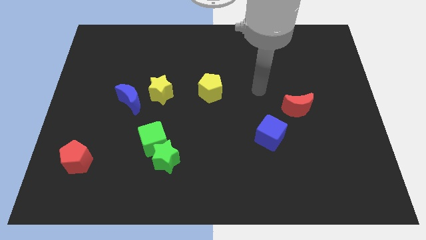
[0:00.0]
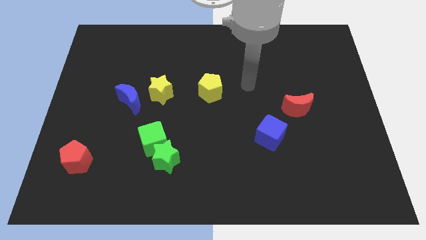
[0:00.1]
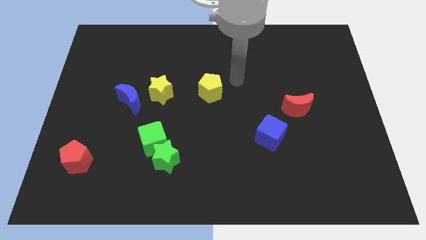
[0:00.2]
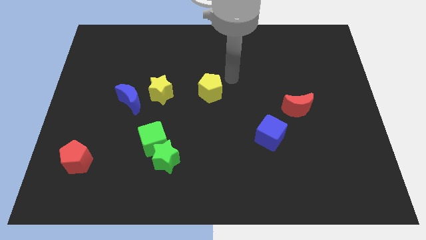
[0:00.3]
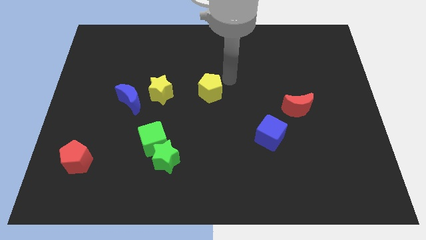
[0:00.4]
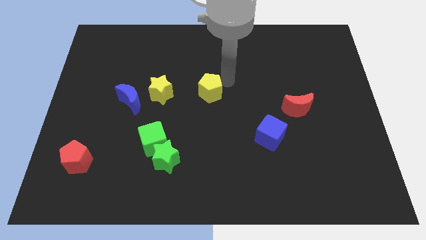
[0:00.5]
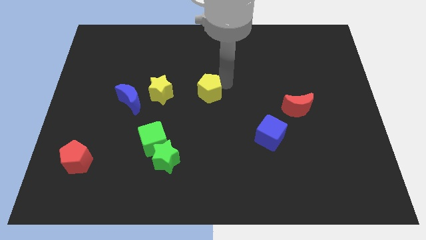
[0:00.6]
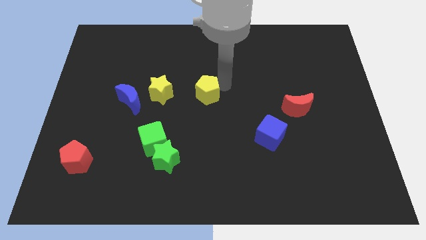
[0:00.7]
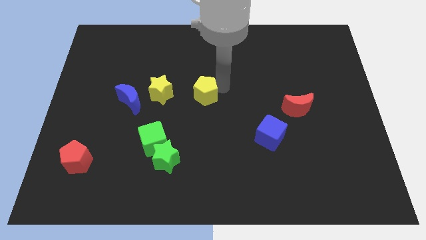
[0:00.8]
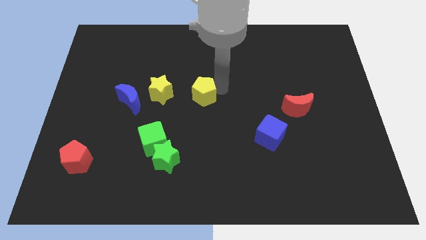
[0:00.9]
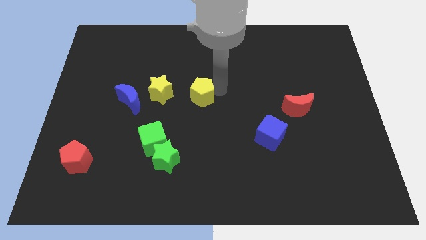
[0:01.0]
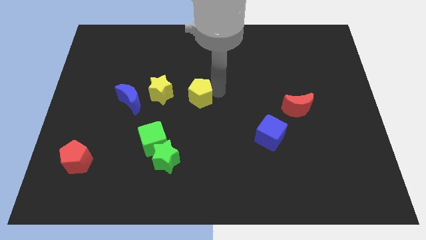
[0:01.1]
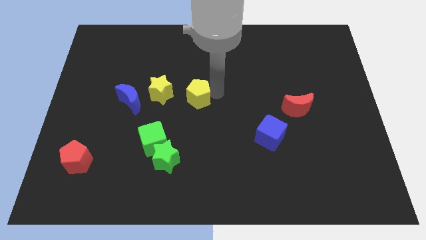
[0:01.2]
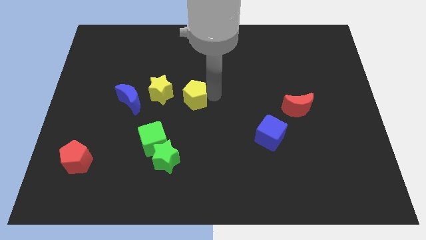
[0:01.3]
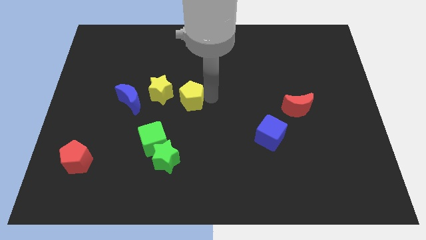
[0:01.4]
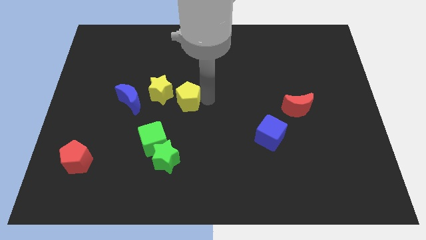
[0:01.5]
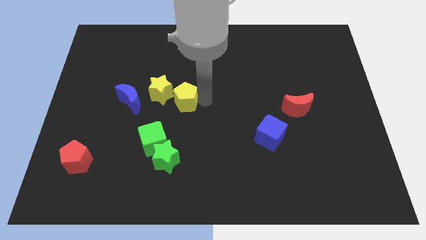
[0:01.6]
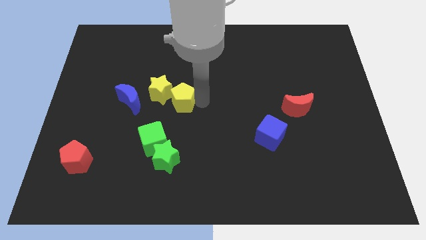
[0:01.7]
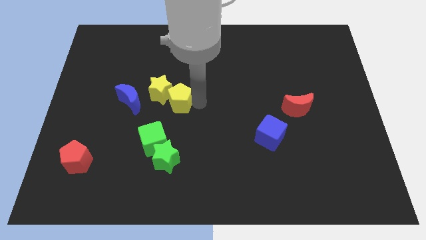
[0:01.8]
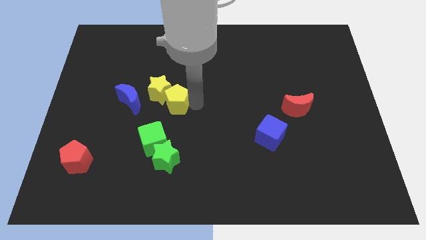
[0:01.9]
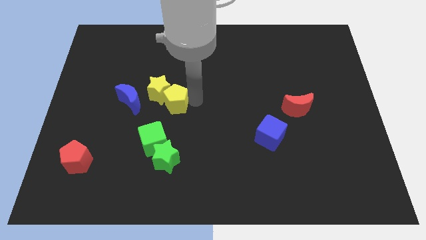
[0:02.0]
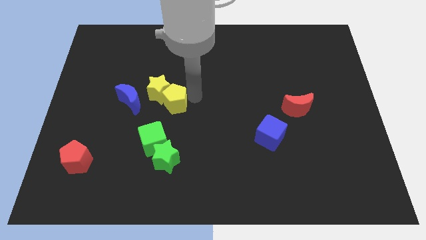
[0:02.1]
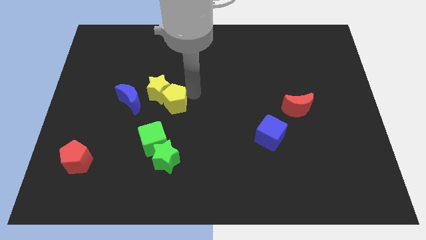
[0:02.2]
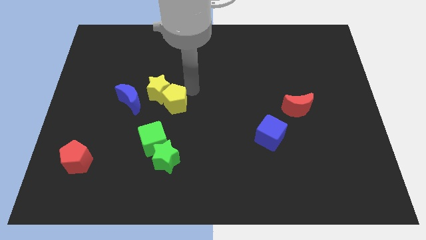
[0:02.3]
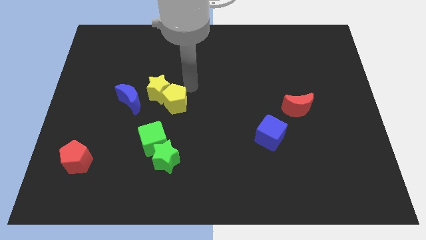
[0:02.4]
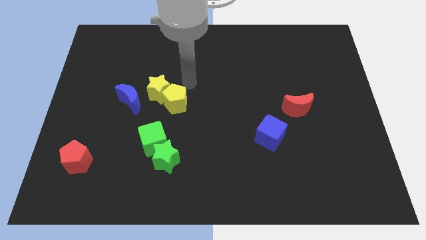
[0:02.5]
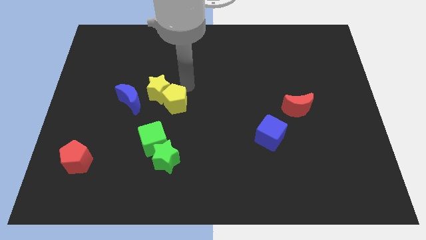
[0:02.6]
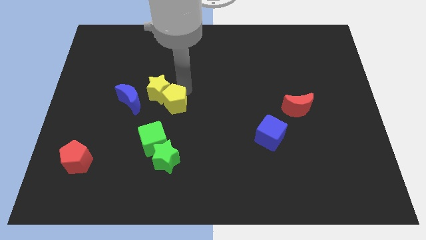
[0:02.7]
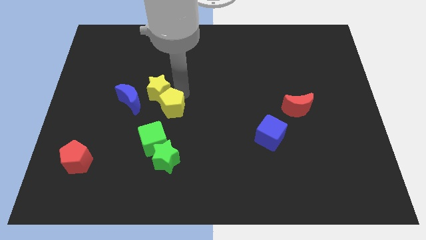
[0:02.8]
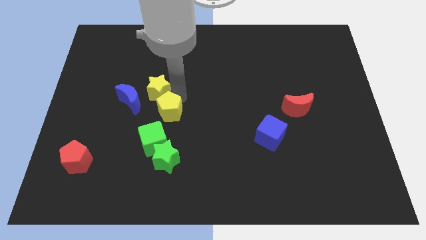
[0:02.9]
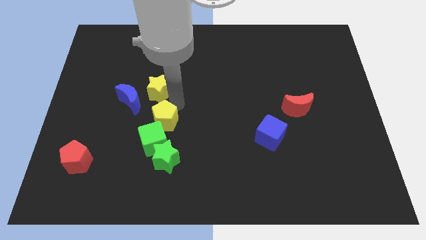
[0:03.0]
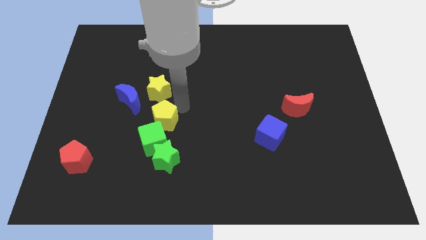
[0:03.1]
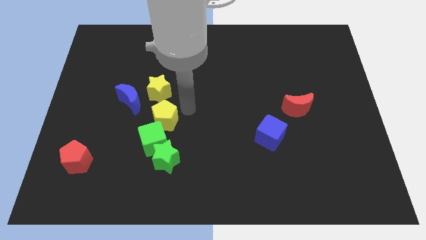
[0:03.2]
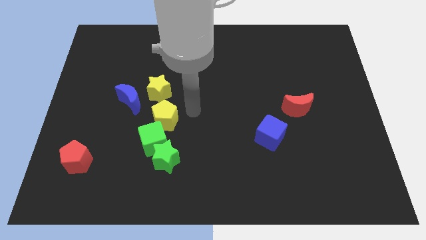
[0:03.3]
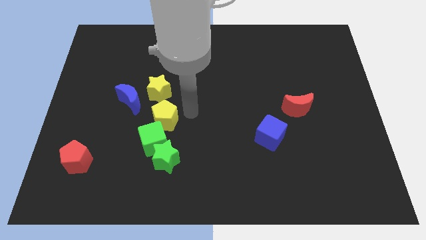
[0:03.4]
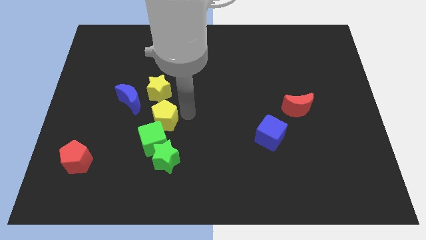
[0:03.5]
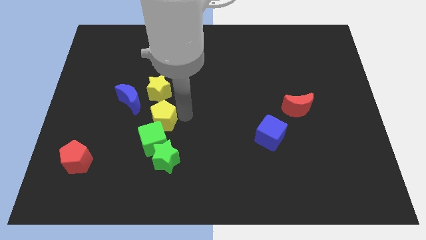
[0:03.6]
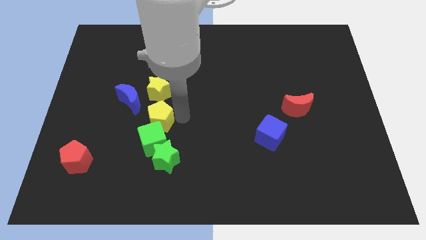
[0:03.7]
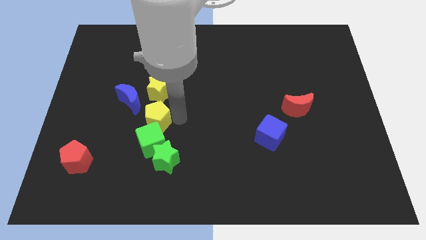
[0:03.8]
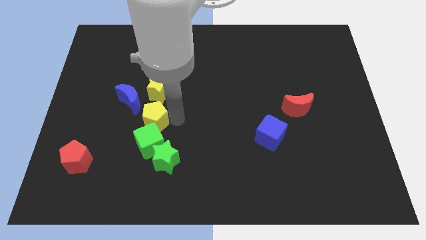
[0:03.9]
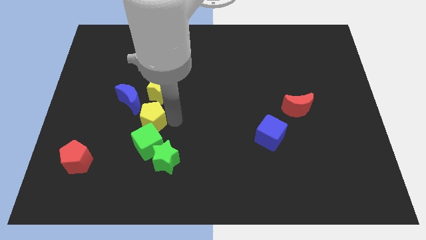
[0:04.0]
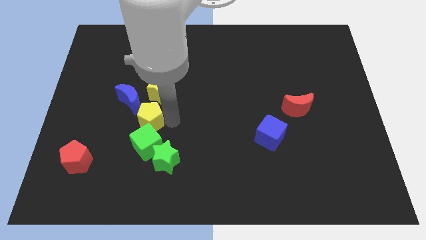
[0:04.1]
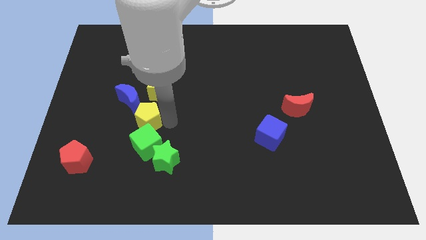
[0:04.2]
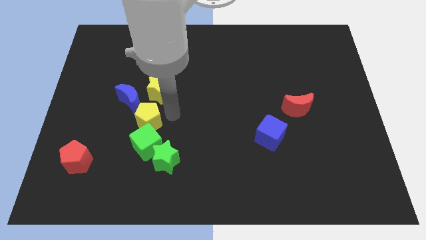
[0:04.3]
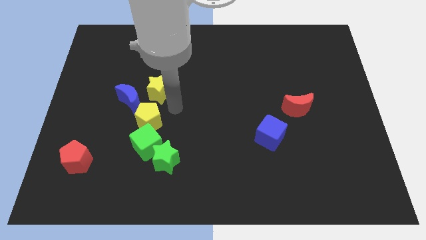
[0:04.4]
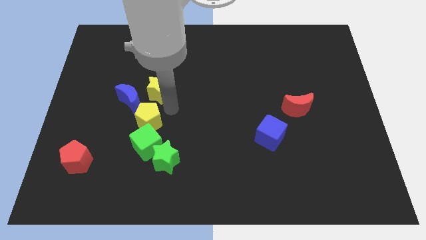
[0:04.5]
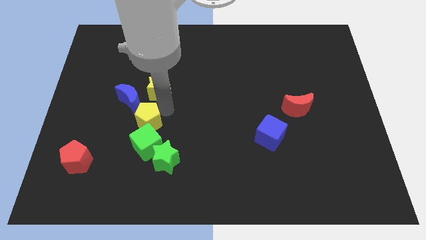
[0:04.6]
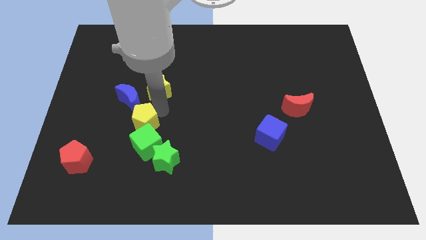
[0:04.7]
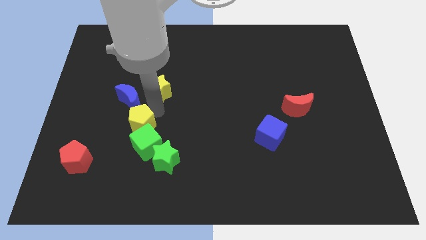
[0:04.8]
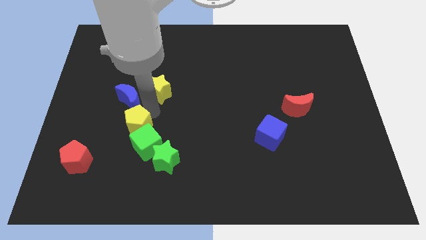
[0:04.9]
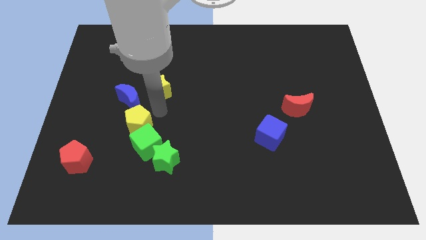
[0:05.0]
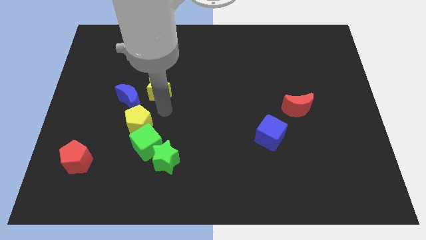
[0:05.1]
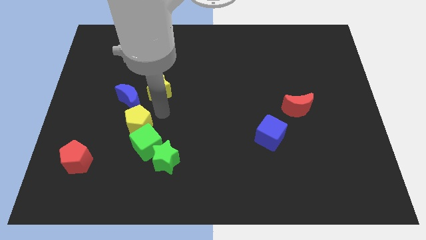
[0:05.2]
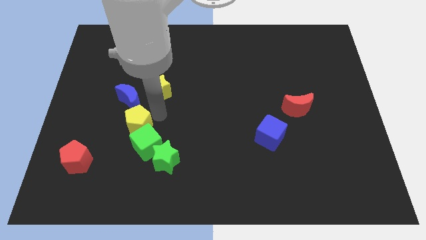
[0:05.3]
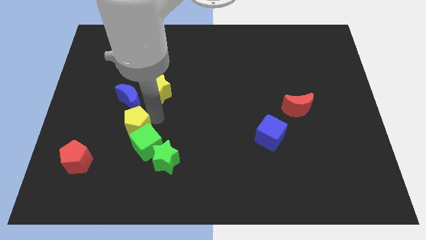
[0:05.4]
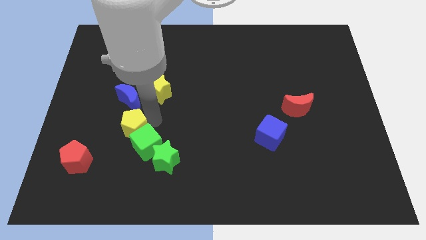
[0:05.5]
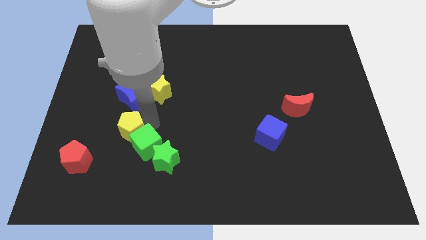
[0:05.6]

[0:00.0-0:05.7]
push the yellow pentagon to the left side of the green cube

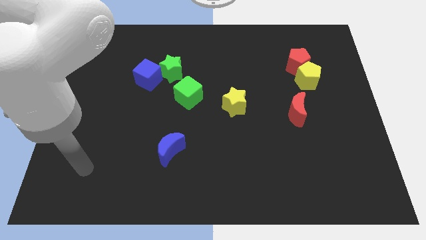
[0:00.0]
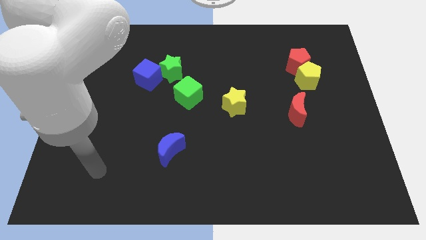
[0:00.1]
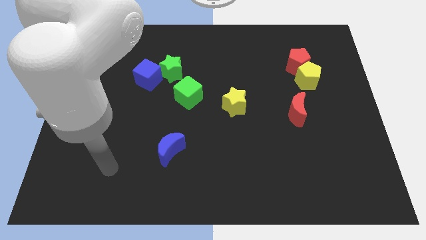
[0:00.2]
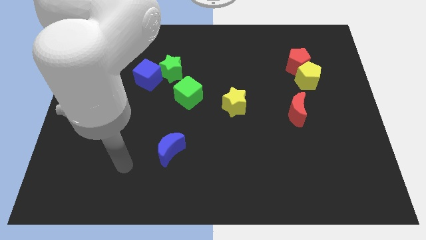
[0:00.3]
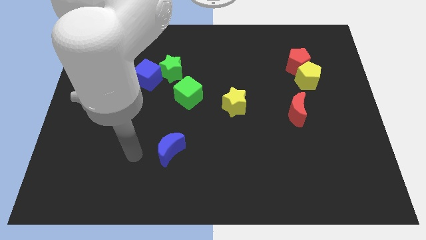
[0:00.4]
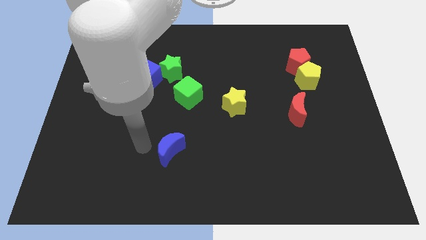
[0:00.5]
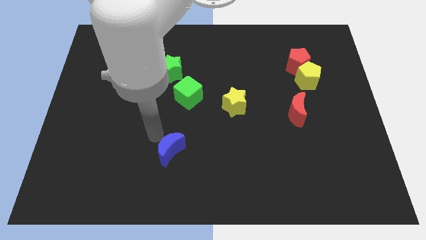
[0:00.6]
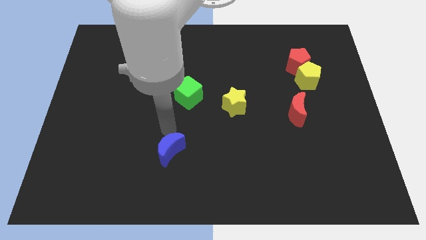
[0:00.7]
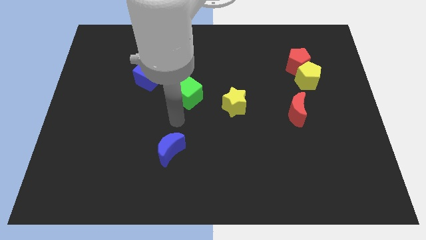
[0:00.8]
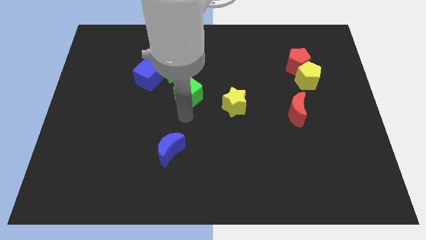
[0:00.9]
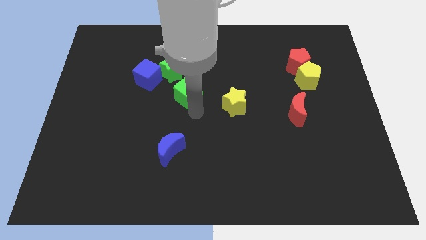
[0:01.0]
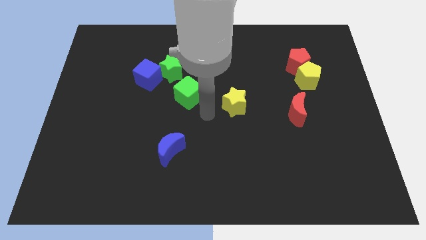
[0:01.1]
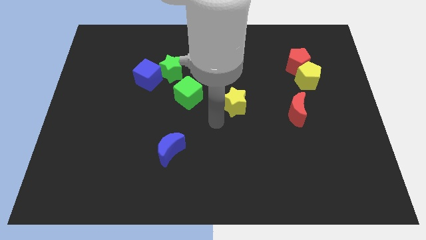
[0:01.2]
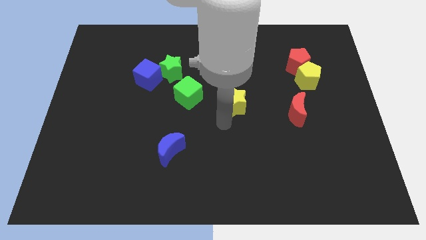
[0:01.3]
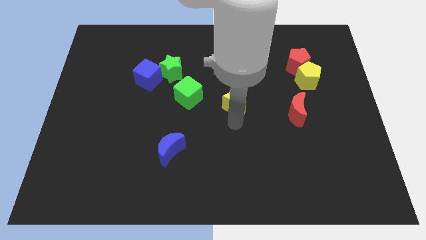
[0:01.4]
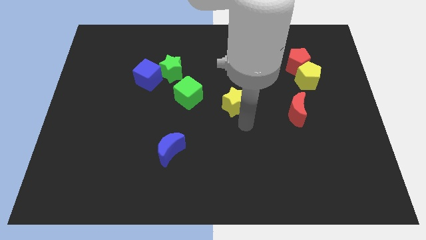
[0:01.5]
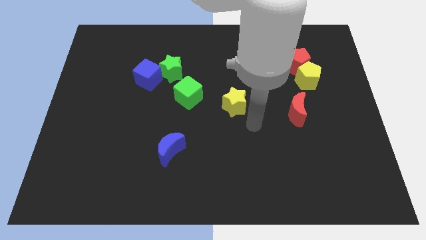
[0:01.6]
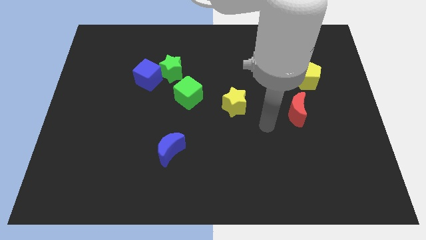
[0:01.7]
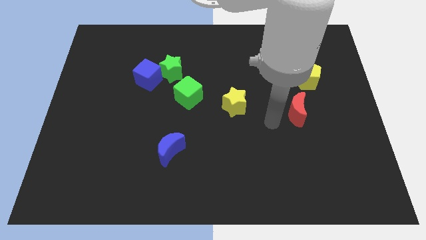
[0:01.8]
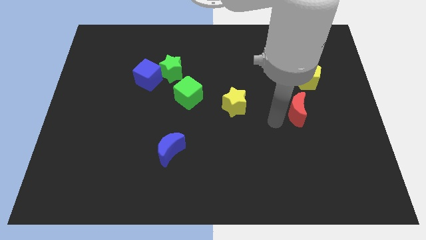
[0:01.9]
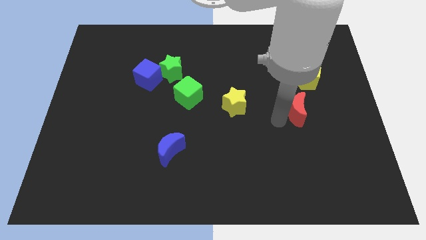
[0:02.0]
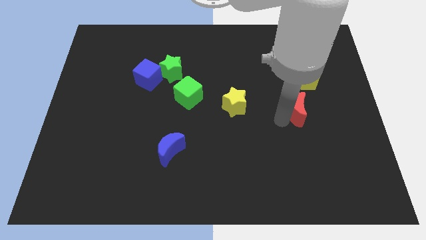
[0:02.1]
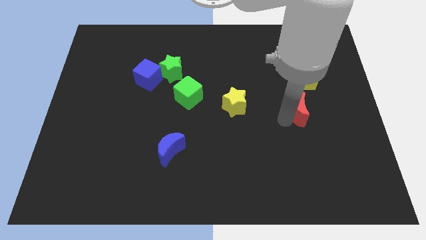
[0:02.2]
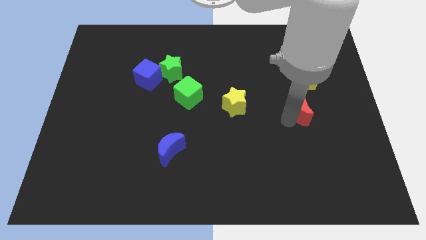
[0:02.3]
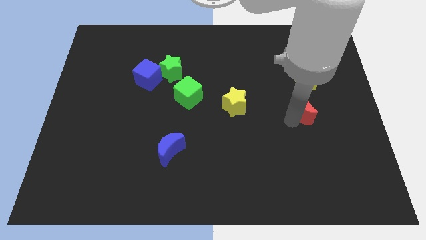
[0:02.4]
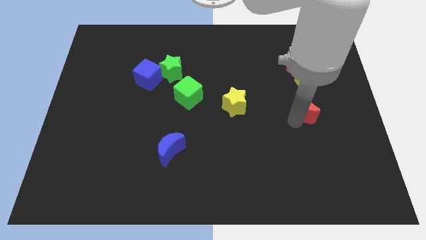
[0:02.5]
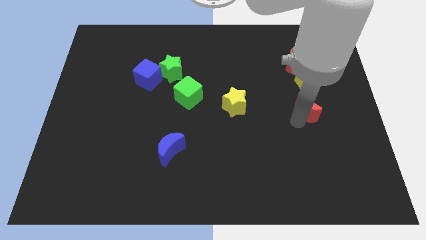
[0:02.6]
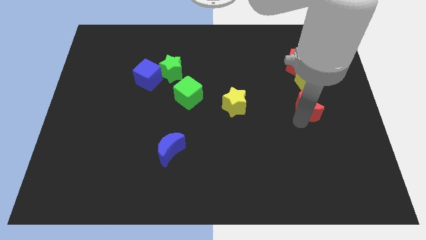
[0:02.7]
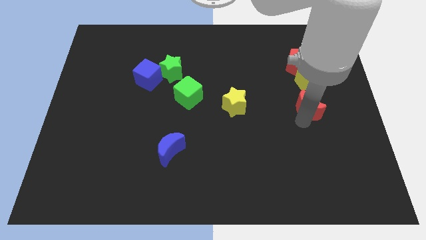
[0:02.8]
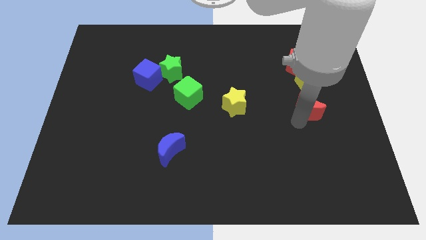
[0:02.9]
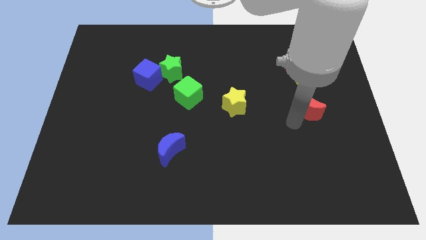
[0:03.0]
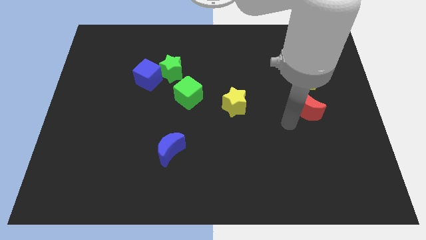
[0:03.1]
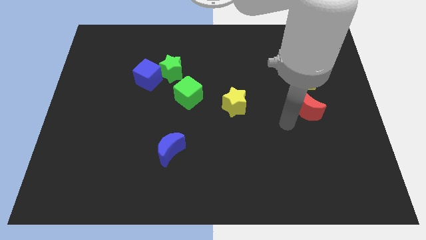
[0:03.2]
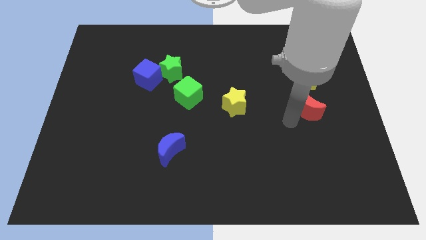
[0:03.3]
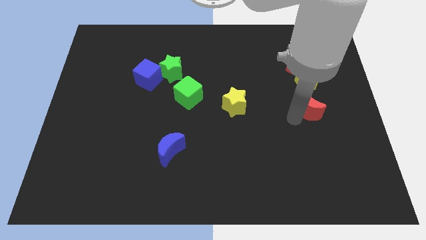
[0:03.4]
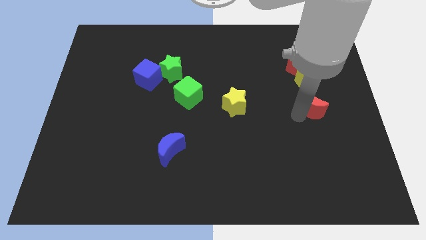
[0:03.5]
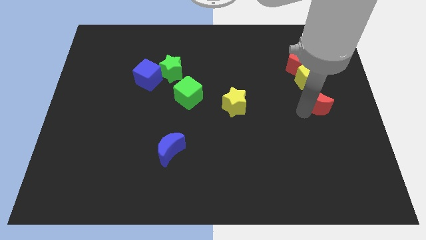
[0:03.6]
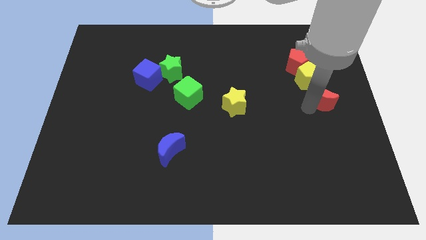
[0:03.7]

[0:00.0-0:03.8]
move the red moon to the bottom right of the yellow pentagon
